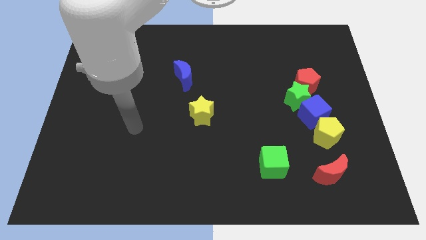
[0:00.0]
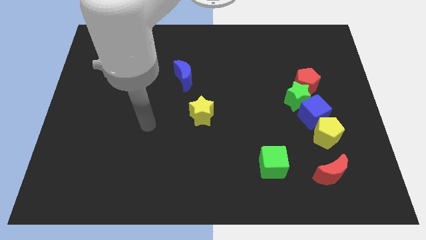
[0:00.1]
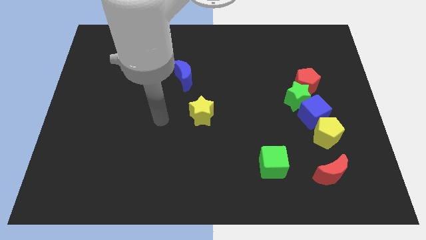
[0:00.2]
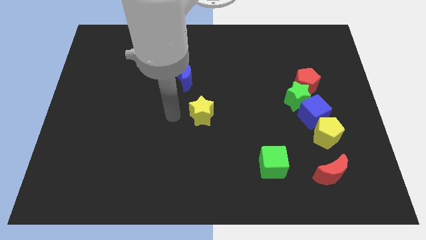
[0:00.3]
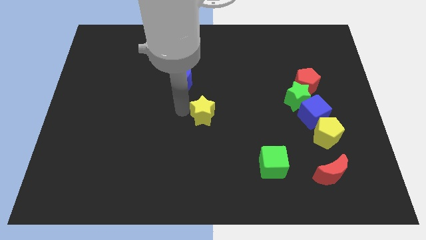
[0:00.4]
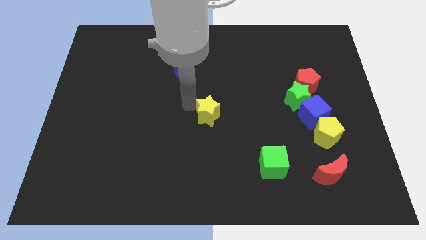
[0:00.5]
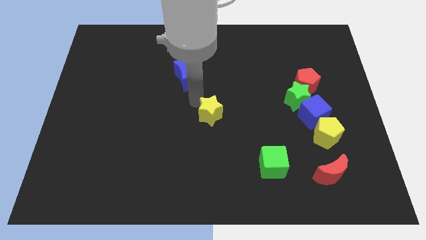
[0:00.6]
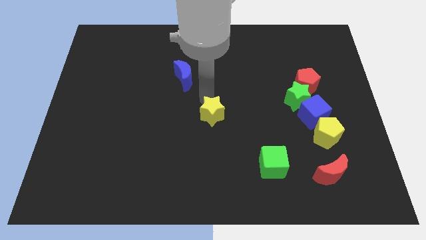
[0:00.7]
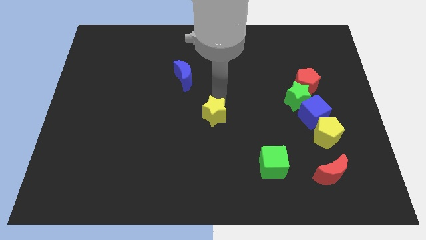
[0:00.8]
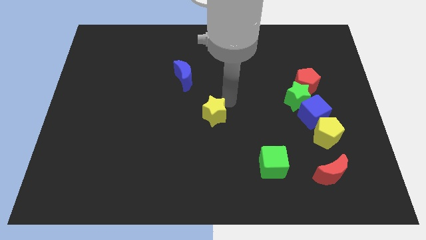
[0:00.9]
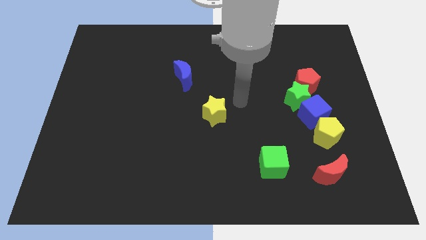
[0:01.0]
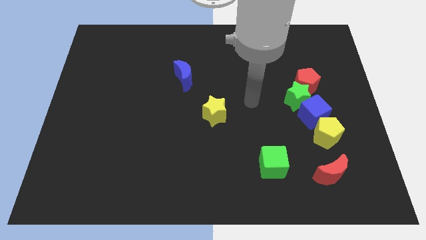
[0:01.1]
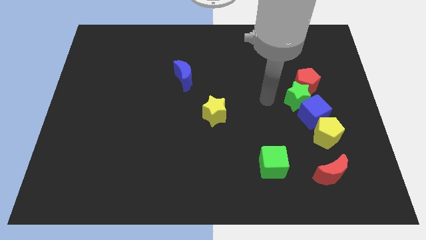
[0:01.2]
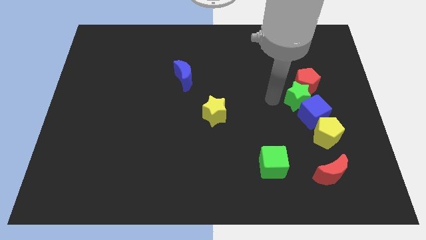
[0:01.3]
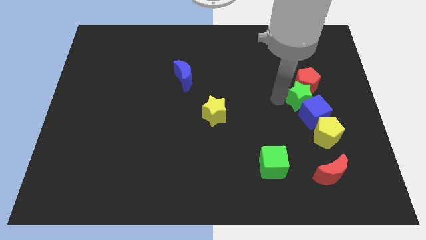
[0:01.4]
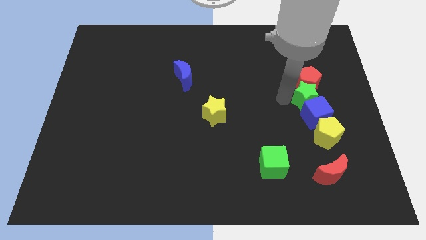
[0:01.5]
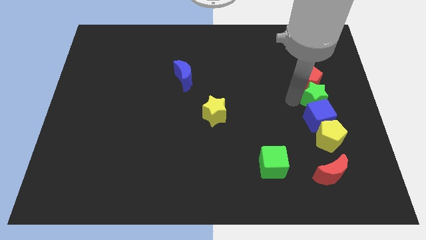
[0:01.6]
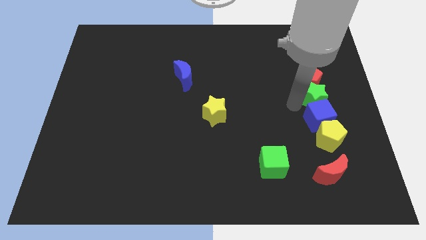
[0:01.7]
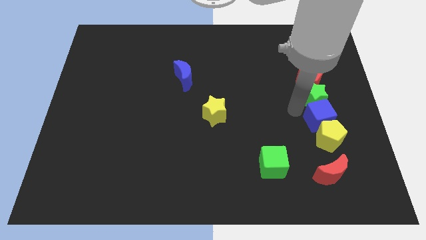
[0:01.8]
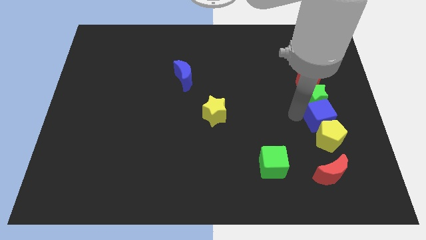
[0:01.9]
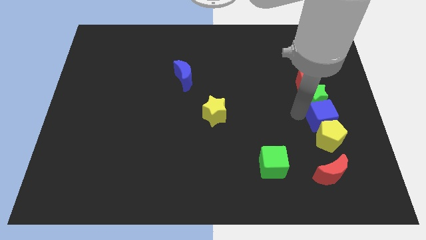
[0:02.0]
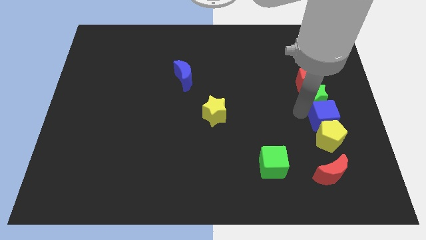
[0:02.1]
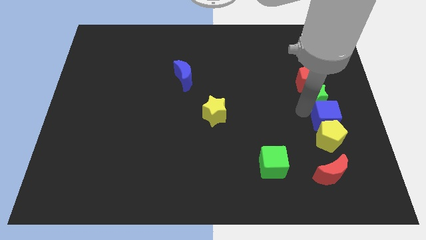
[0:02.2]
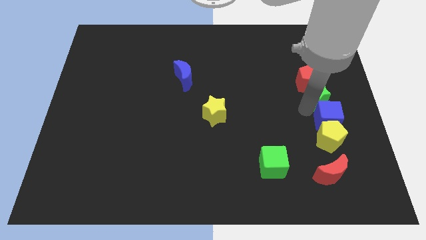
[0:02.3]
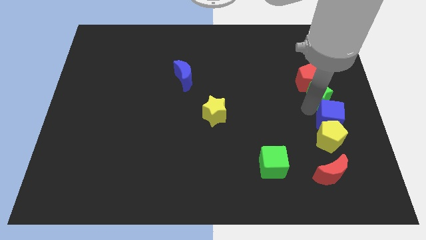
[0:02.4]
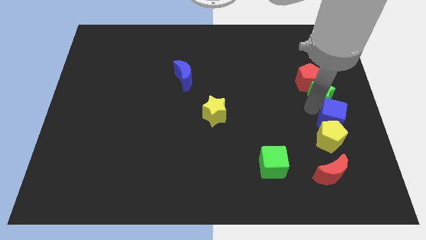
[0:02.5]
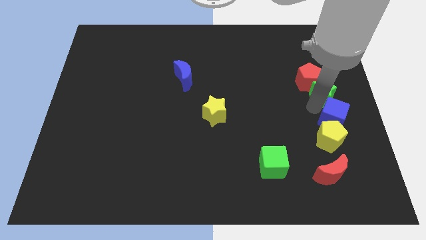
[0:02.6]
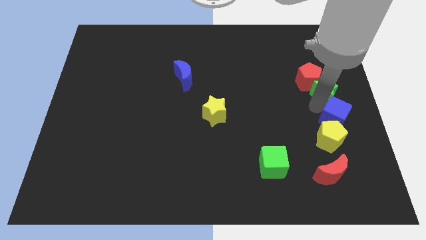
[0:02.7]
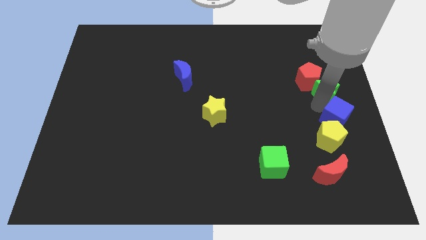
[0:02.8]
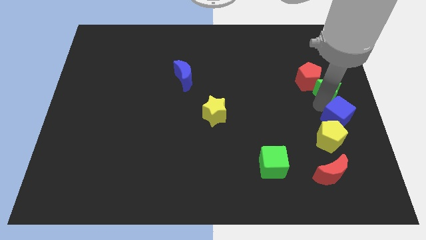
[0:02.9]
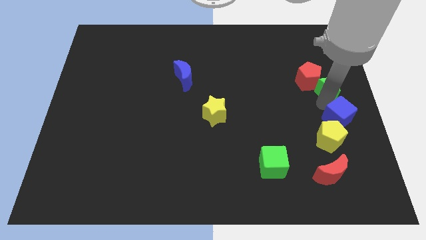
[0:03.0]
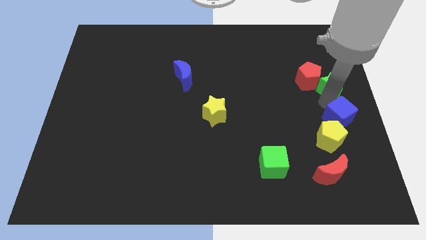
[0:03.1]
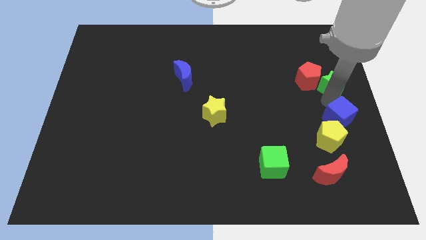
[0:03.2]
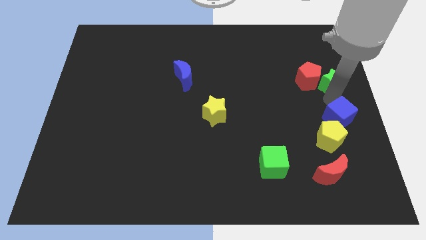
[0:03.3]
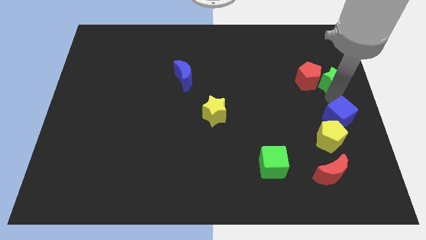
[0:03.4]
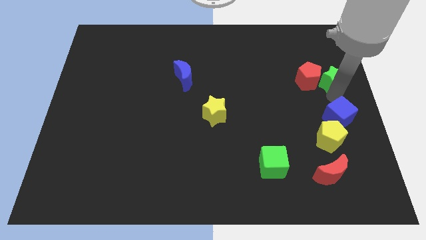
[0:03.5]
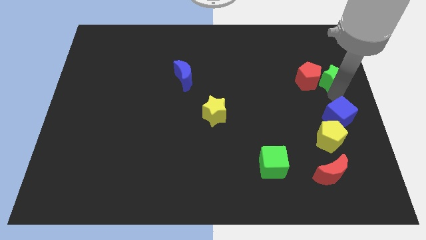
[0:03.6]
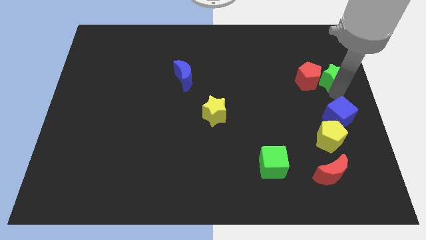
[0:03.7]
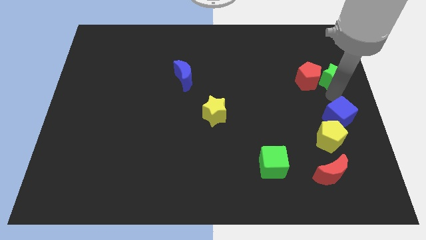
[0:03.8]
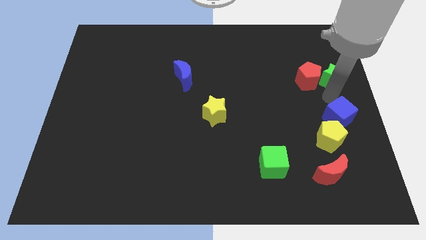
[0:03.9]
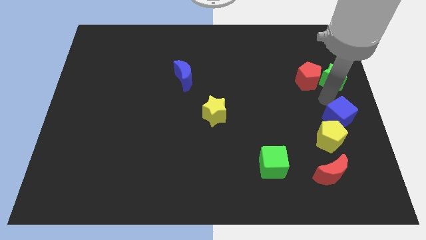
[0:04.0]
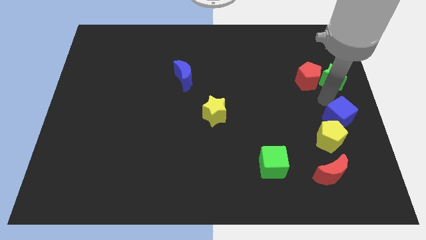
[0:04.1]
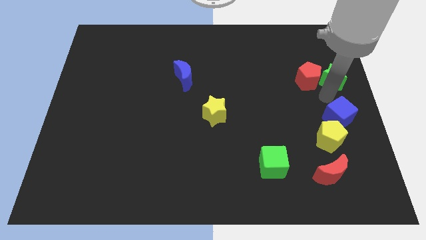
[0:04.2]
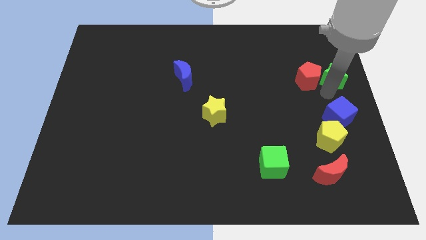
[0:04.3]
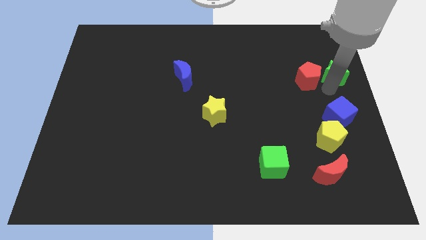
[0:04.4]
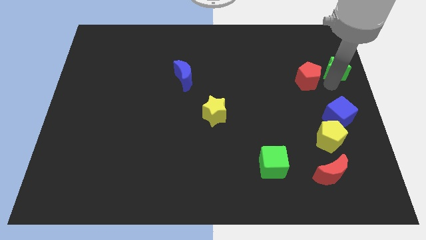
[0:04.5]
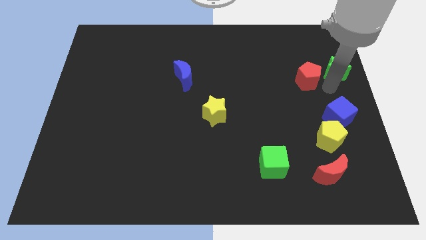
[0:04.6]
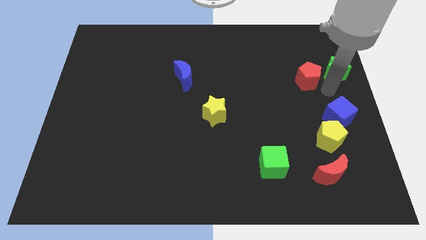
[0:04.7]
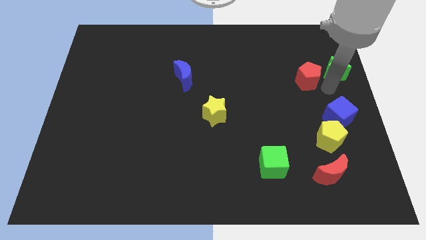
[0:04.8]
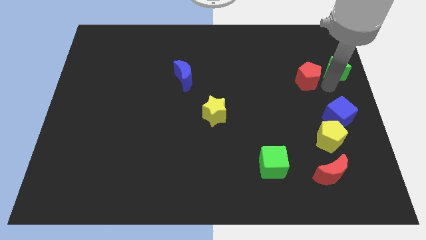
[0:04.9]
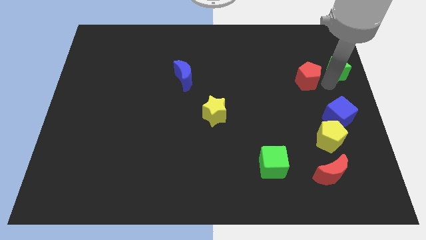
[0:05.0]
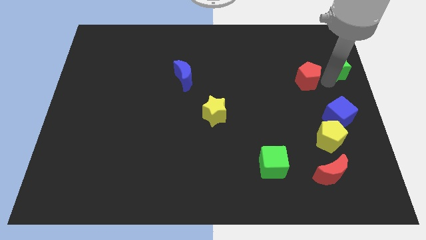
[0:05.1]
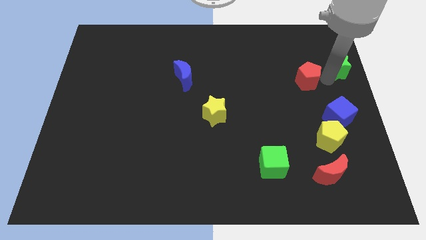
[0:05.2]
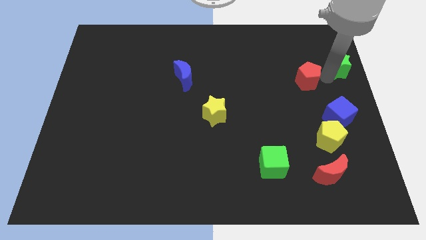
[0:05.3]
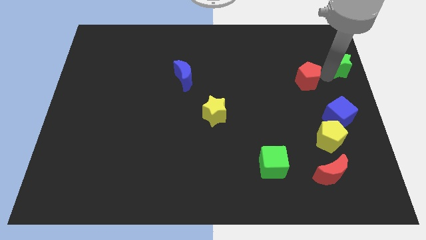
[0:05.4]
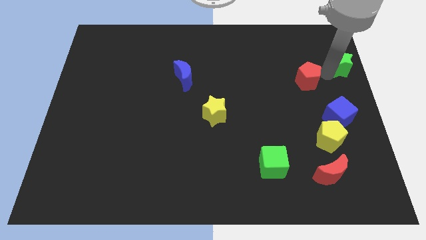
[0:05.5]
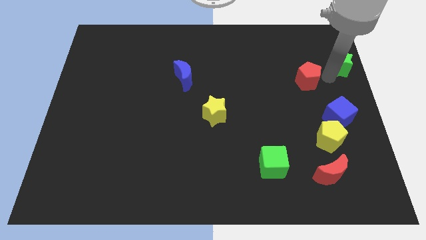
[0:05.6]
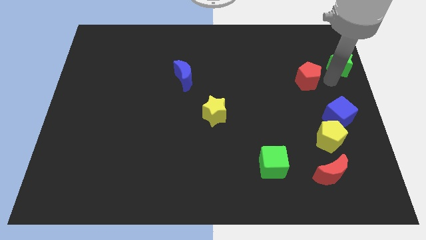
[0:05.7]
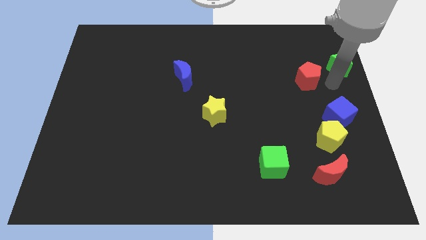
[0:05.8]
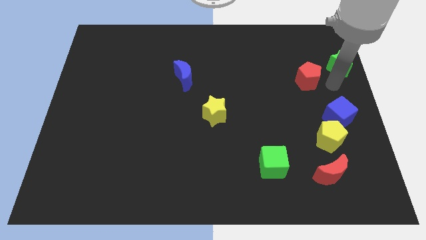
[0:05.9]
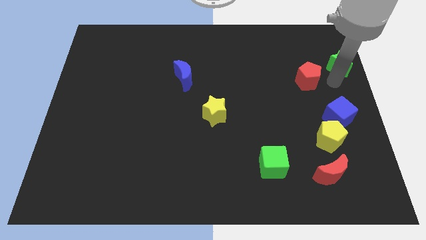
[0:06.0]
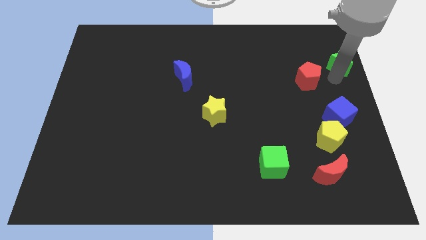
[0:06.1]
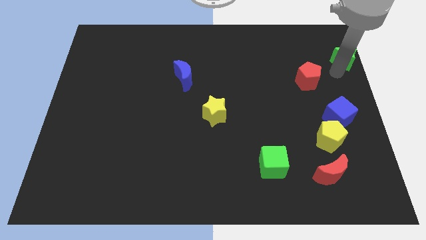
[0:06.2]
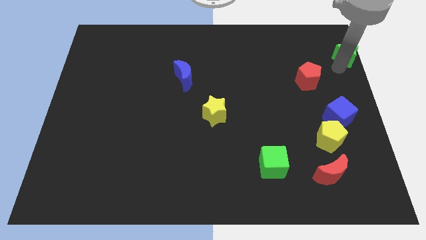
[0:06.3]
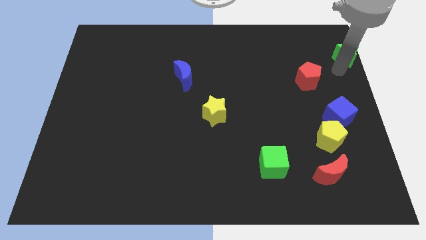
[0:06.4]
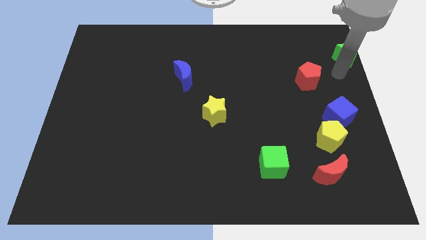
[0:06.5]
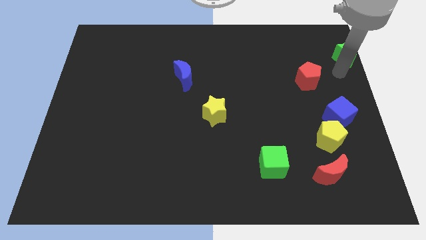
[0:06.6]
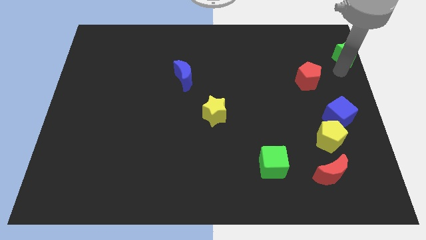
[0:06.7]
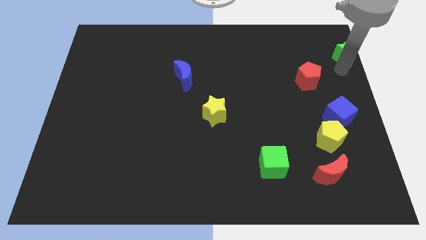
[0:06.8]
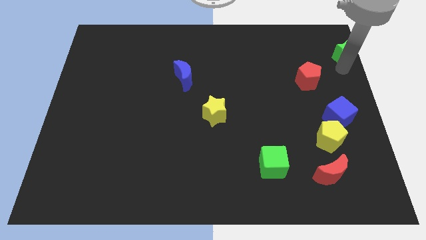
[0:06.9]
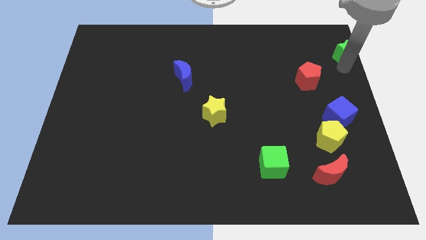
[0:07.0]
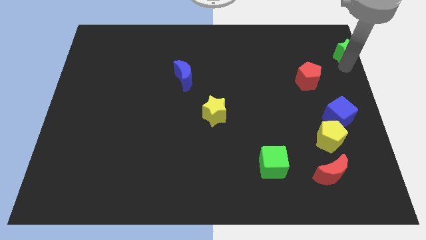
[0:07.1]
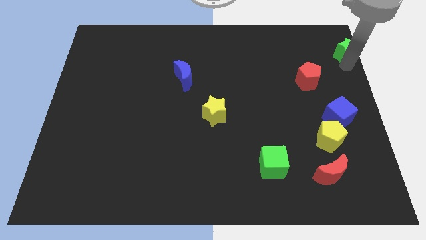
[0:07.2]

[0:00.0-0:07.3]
move the green star to the top right corner
